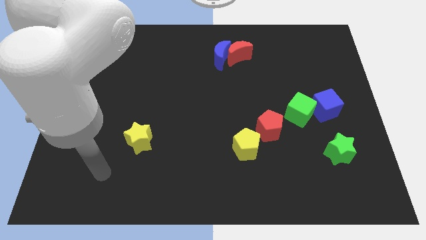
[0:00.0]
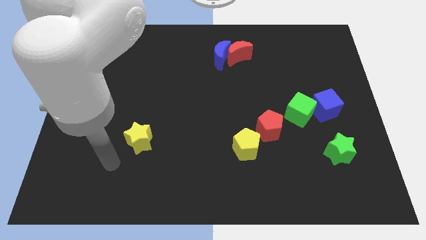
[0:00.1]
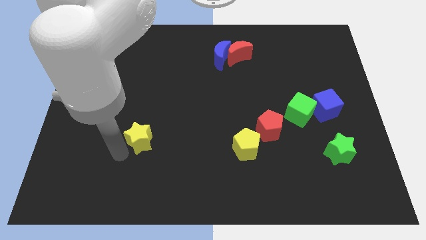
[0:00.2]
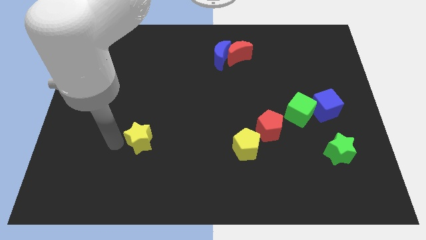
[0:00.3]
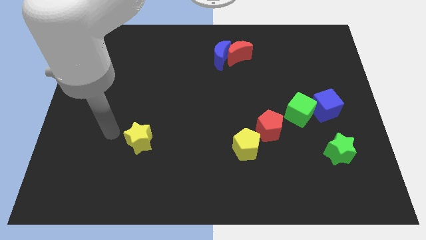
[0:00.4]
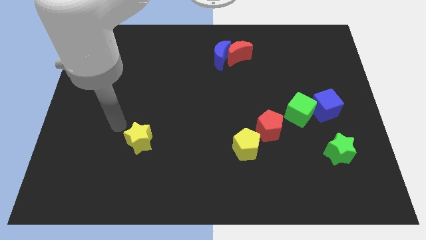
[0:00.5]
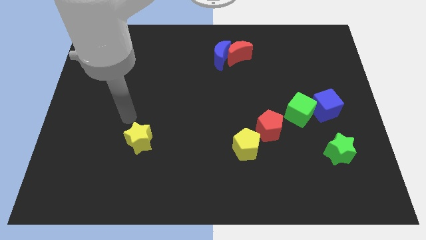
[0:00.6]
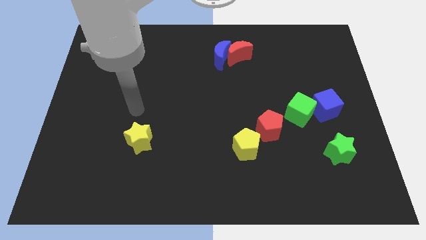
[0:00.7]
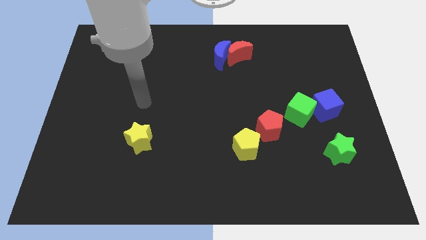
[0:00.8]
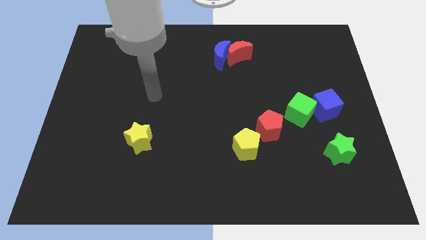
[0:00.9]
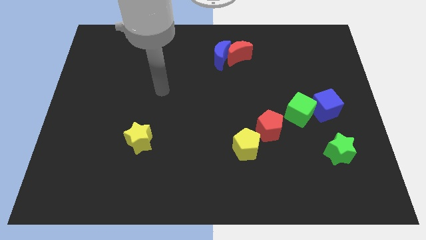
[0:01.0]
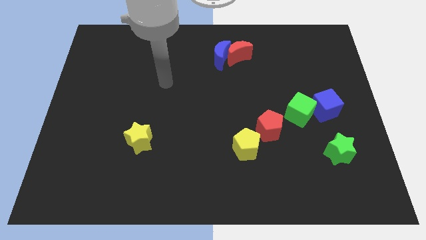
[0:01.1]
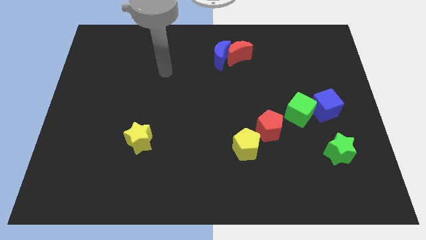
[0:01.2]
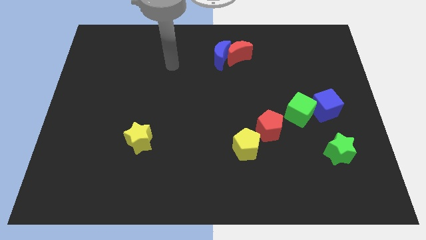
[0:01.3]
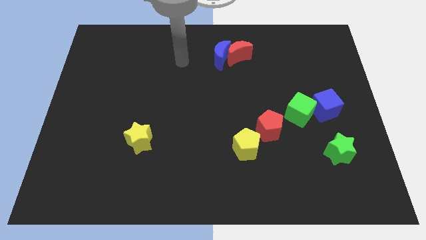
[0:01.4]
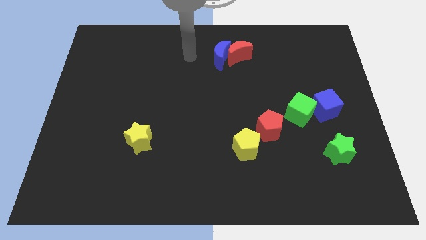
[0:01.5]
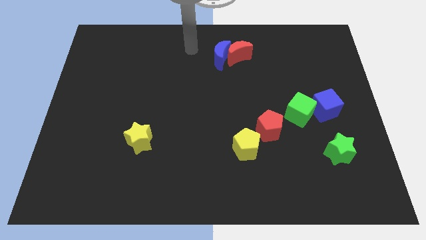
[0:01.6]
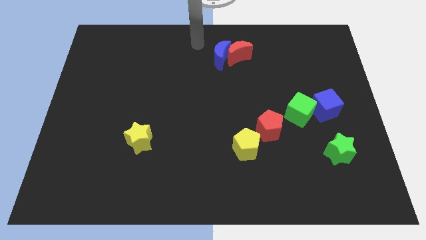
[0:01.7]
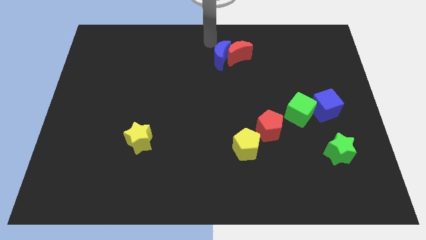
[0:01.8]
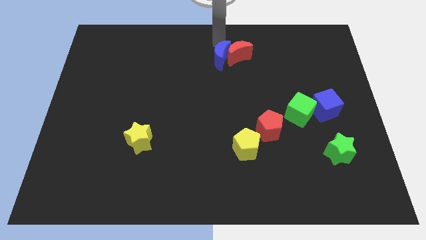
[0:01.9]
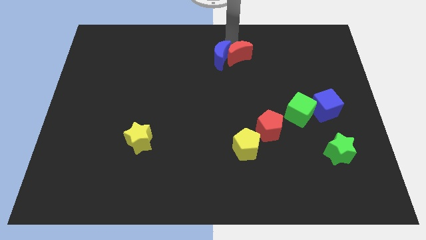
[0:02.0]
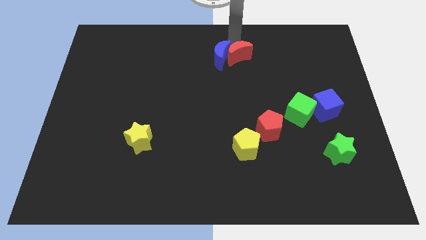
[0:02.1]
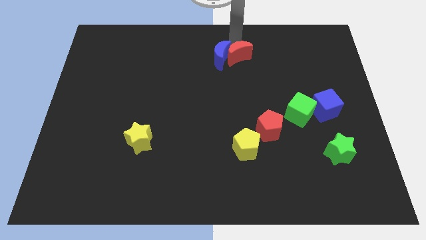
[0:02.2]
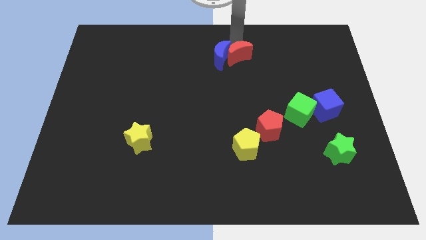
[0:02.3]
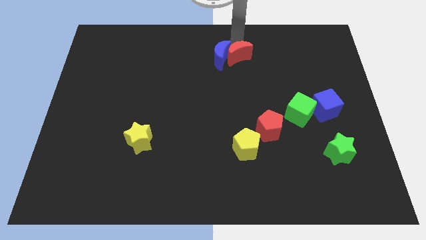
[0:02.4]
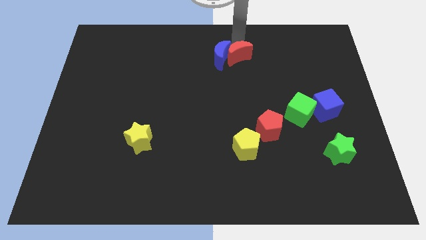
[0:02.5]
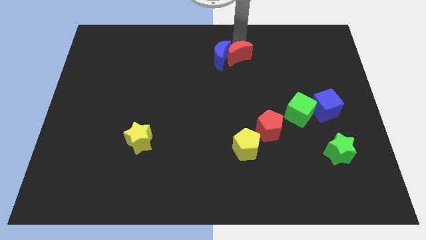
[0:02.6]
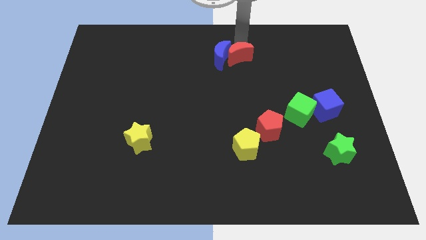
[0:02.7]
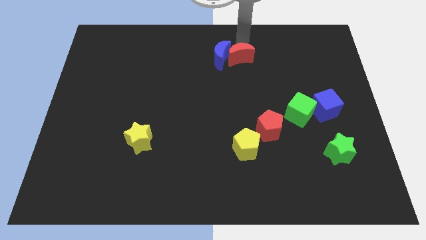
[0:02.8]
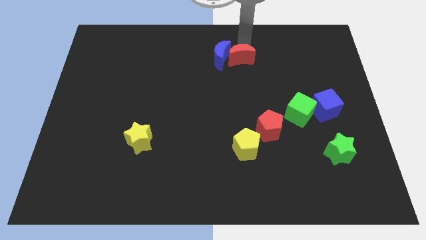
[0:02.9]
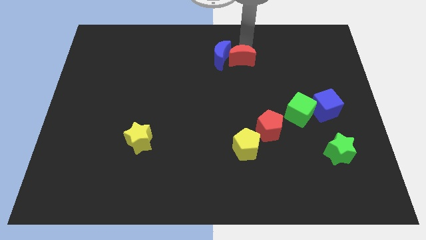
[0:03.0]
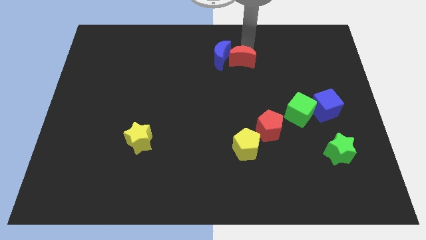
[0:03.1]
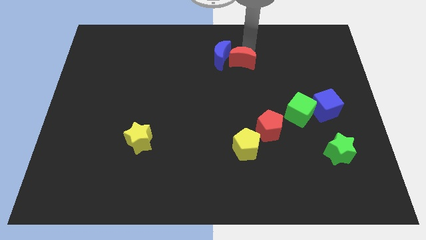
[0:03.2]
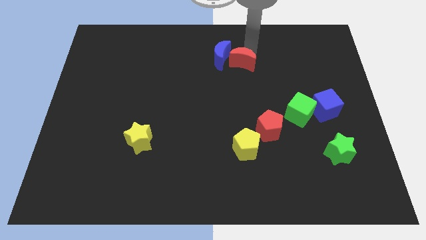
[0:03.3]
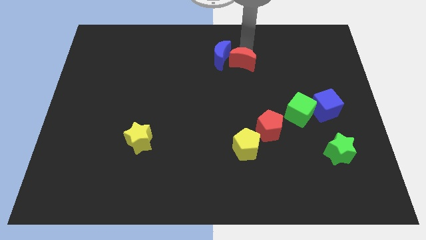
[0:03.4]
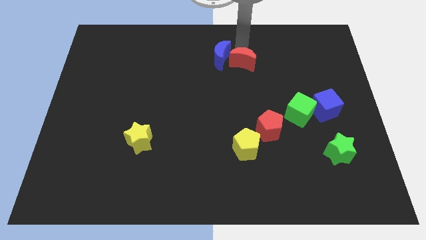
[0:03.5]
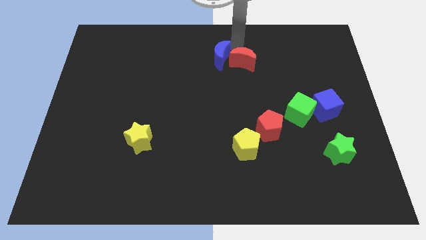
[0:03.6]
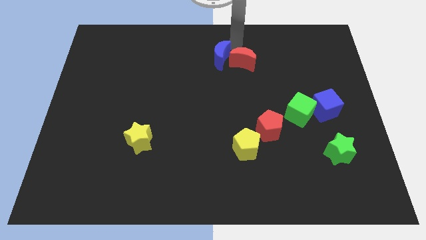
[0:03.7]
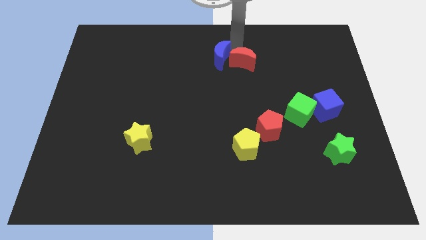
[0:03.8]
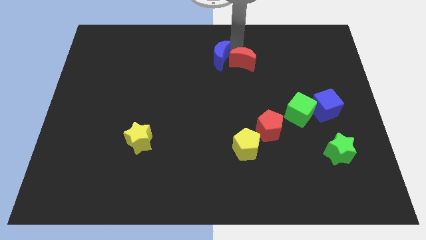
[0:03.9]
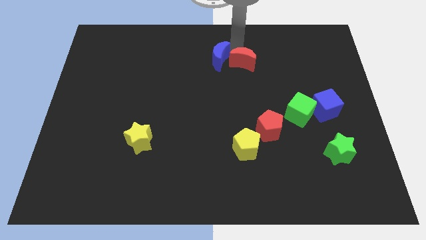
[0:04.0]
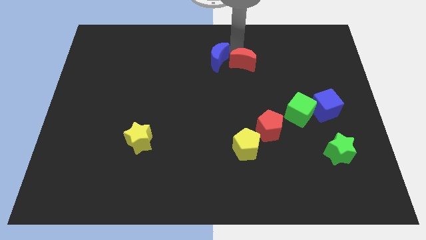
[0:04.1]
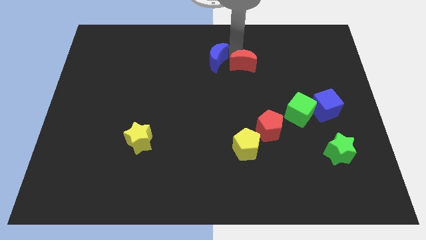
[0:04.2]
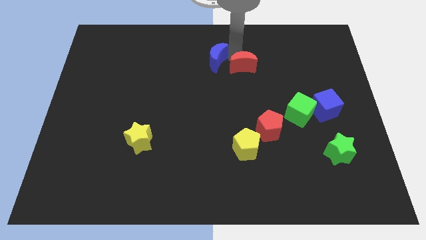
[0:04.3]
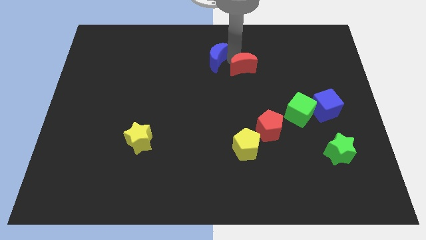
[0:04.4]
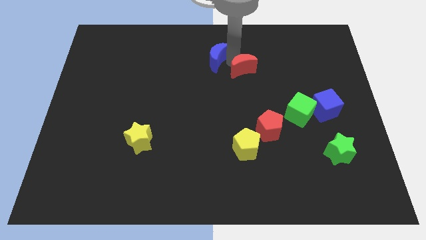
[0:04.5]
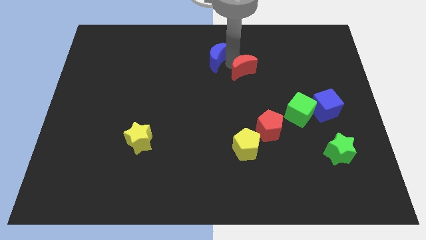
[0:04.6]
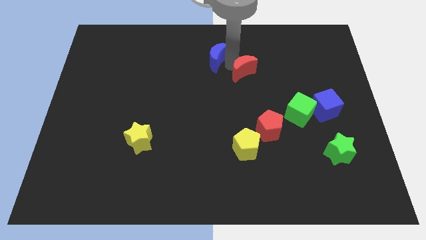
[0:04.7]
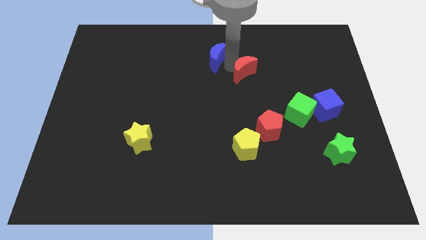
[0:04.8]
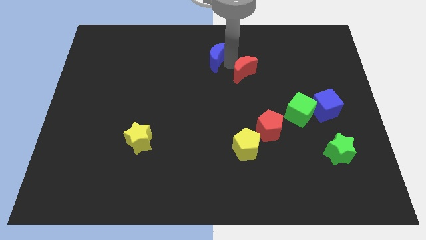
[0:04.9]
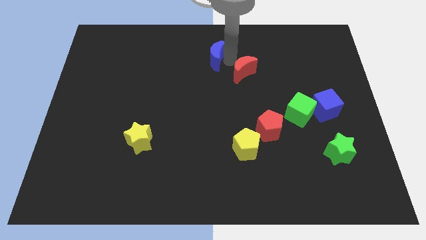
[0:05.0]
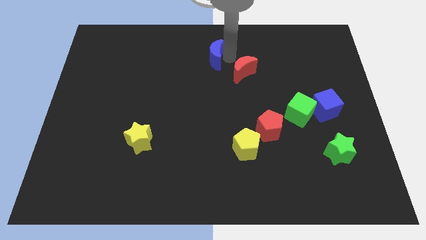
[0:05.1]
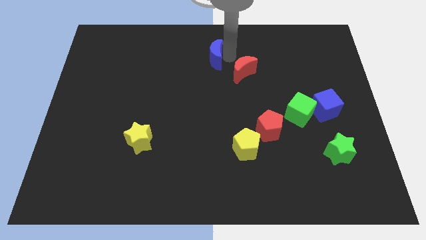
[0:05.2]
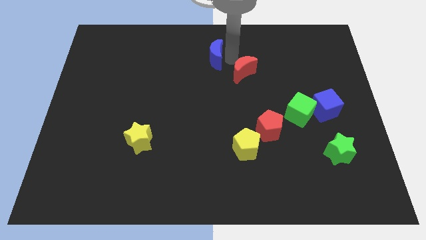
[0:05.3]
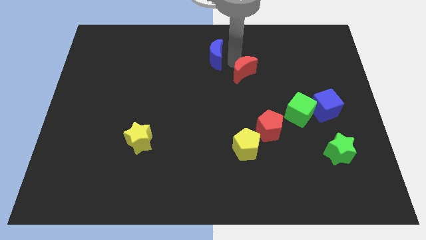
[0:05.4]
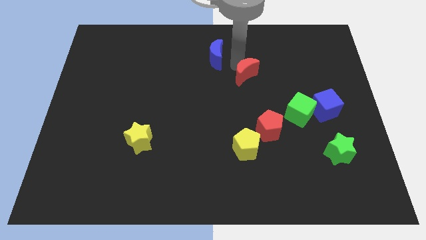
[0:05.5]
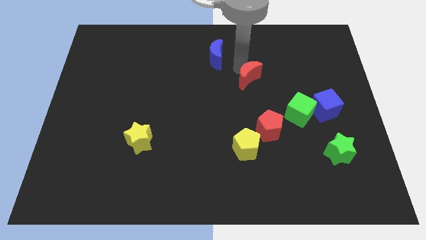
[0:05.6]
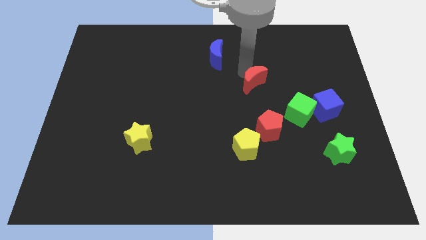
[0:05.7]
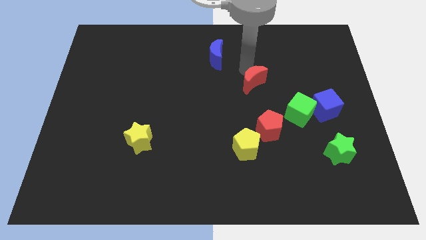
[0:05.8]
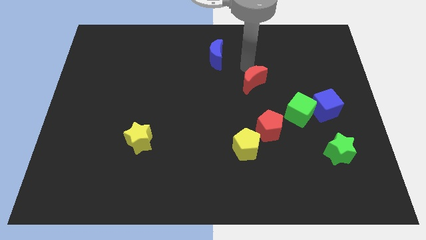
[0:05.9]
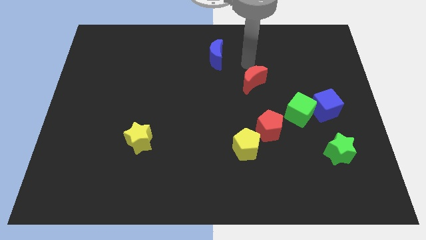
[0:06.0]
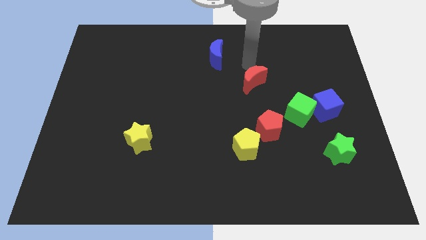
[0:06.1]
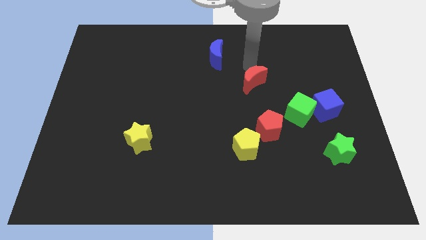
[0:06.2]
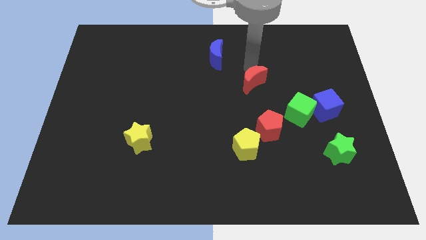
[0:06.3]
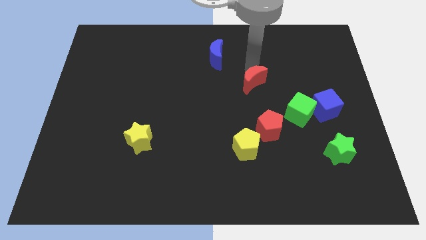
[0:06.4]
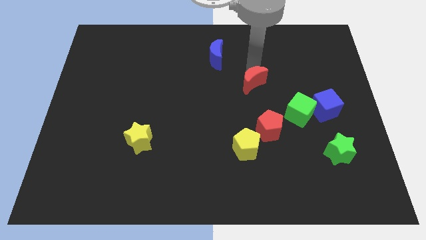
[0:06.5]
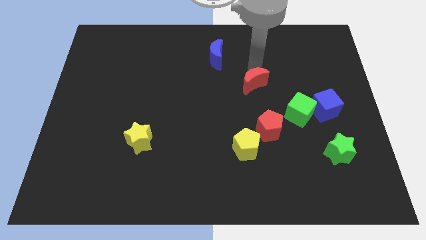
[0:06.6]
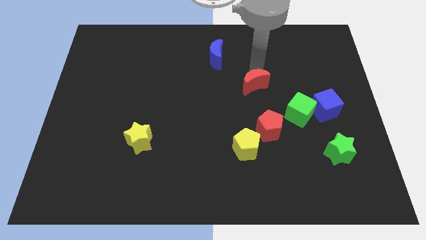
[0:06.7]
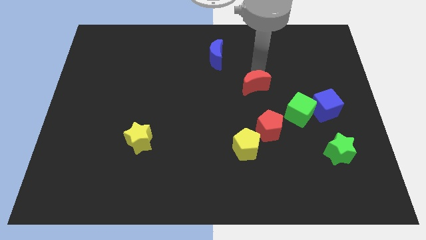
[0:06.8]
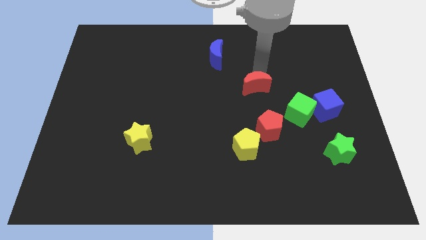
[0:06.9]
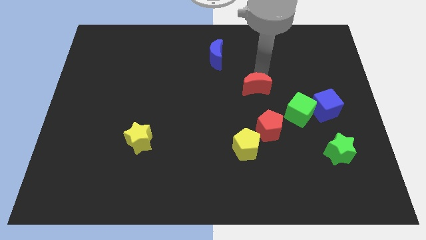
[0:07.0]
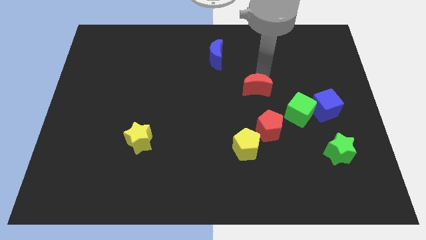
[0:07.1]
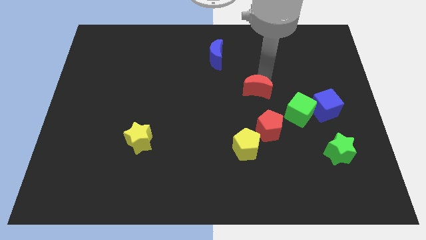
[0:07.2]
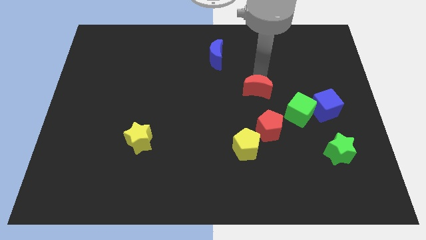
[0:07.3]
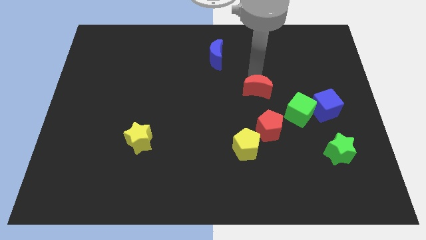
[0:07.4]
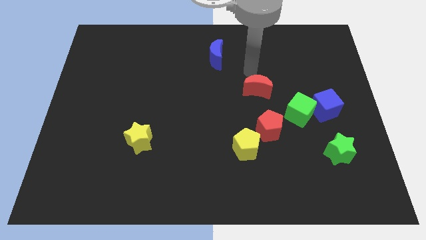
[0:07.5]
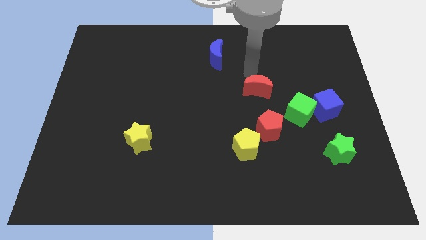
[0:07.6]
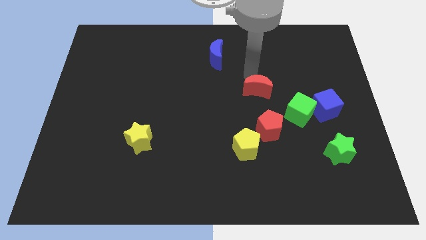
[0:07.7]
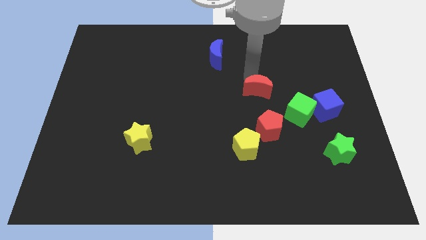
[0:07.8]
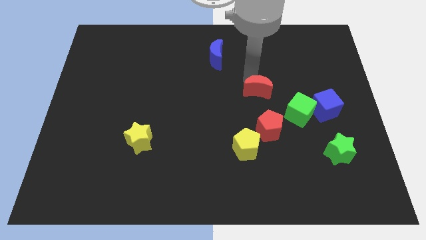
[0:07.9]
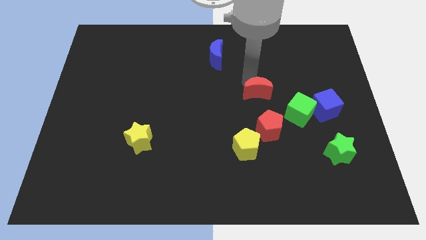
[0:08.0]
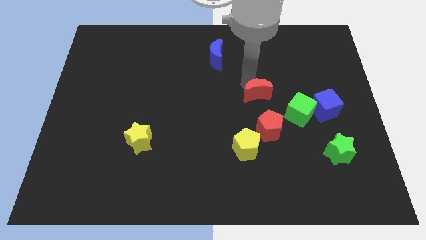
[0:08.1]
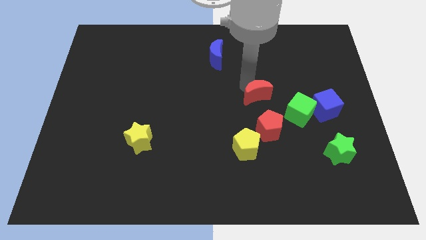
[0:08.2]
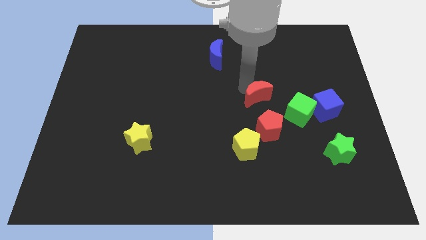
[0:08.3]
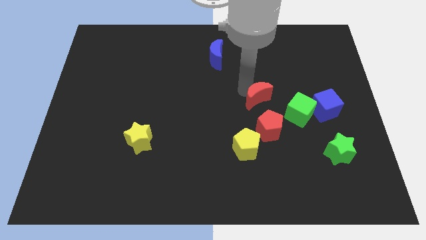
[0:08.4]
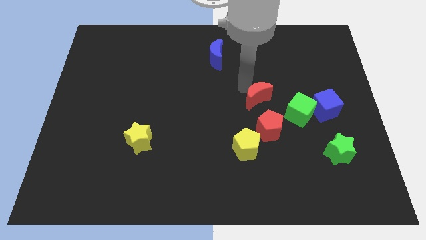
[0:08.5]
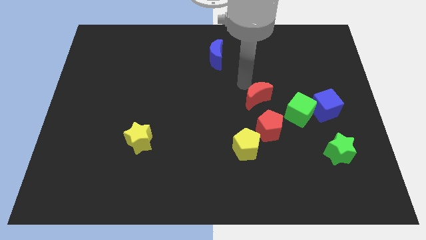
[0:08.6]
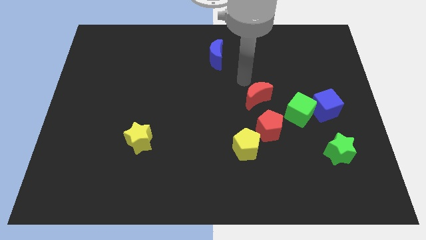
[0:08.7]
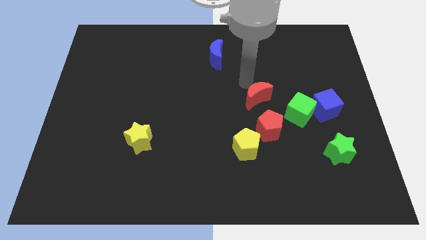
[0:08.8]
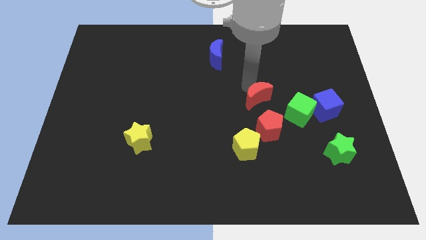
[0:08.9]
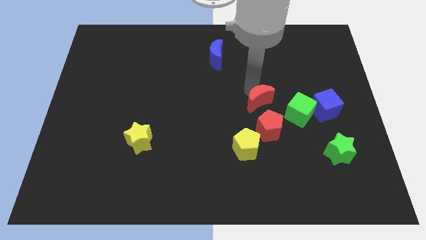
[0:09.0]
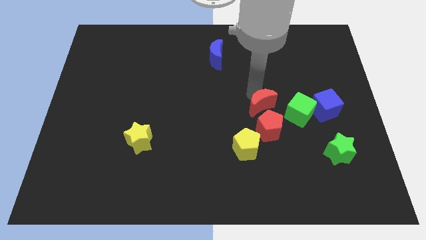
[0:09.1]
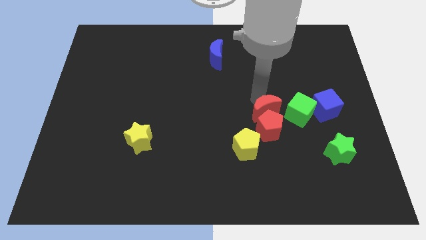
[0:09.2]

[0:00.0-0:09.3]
push the red moon close to the red pentagon
